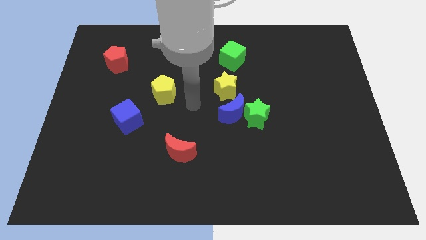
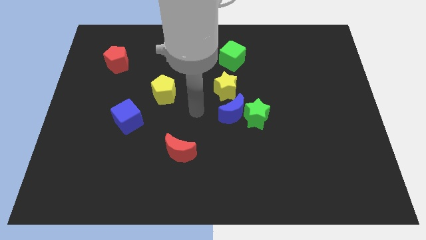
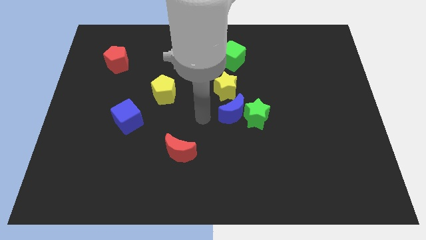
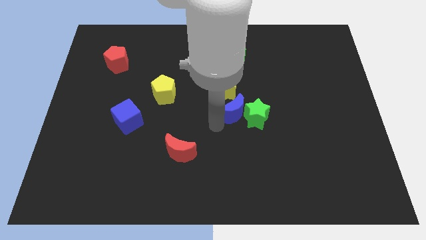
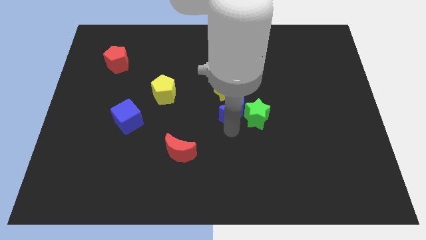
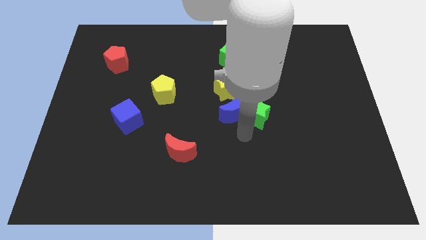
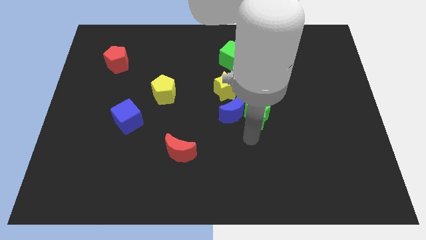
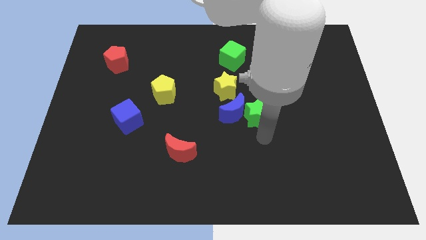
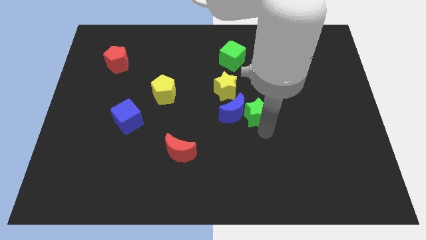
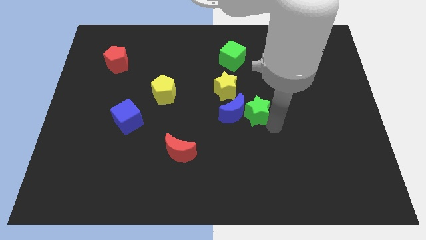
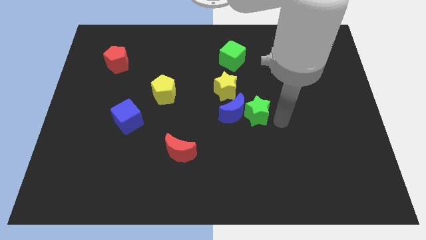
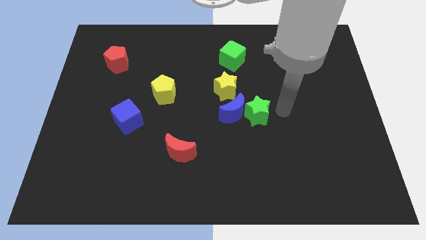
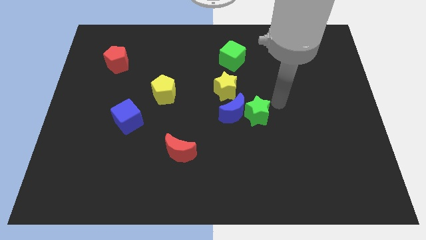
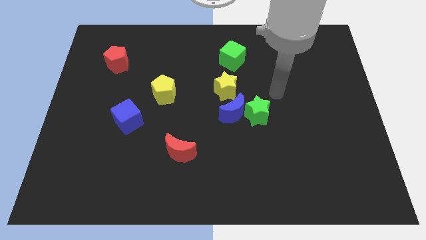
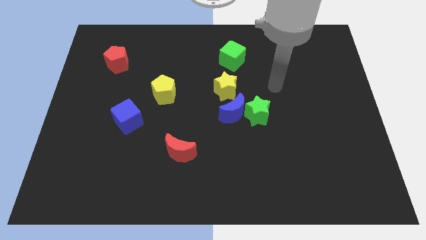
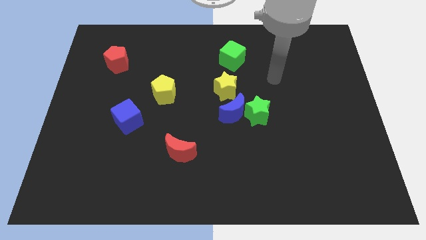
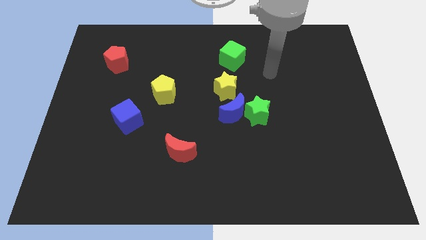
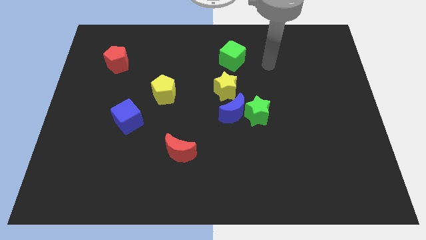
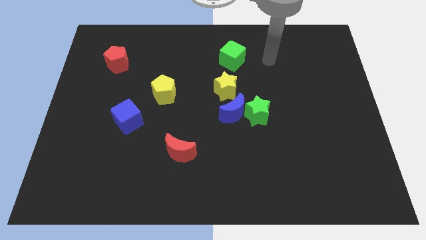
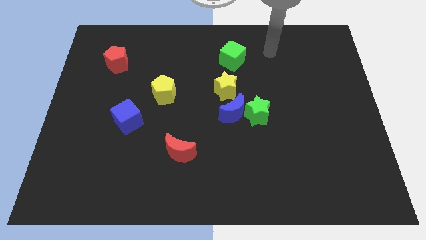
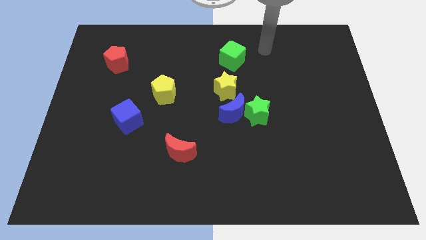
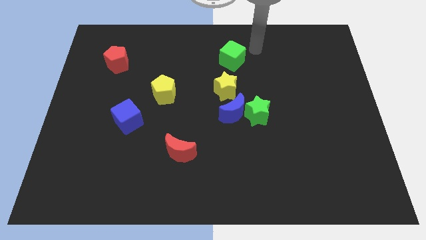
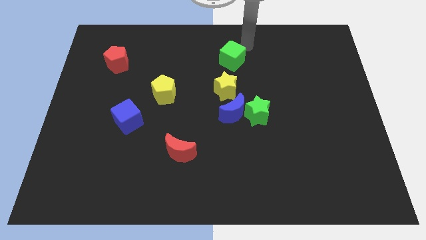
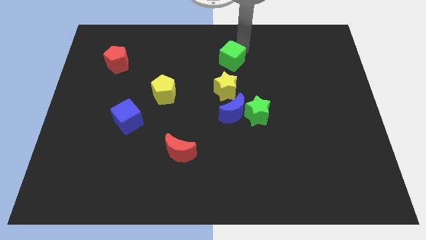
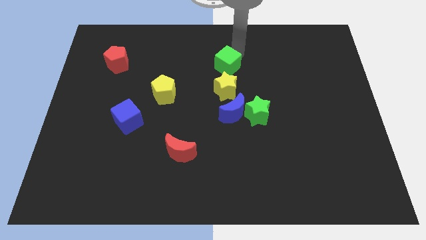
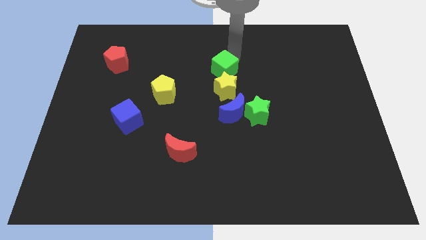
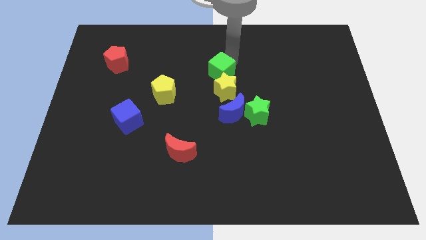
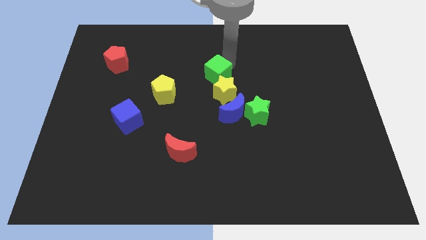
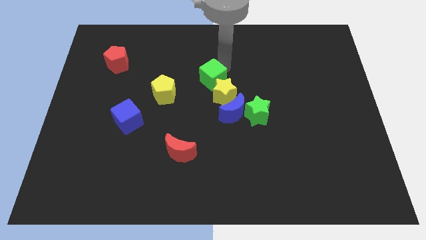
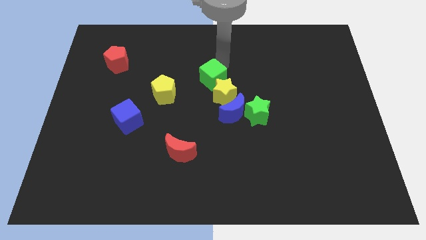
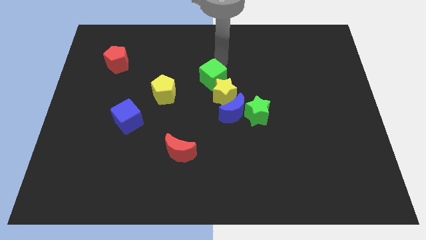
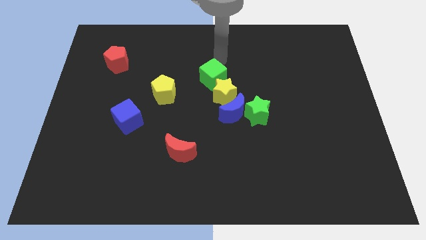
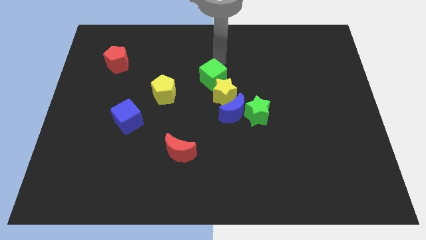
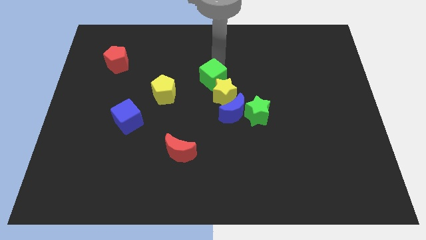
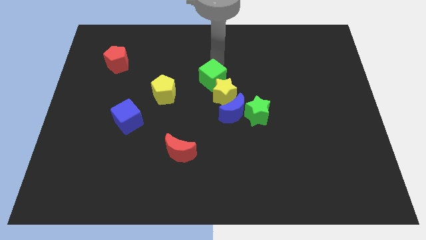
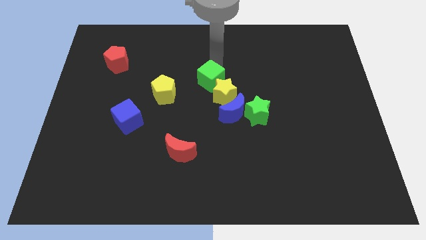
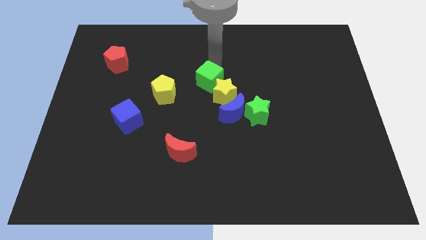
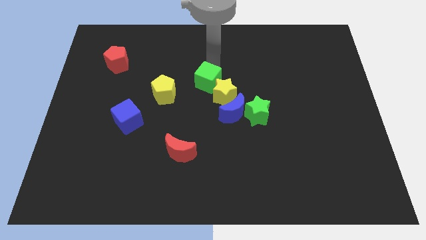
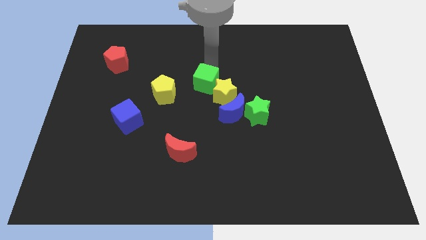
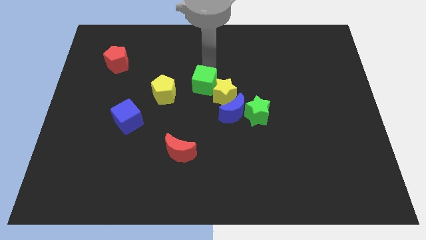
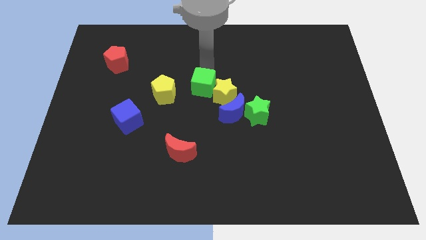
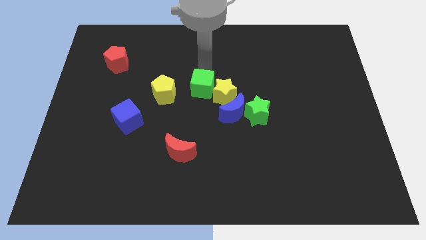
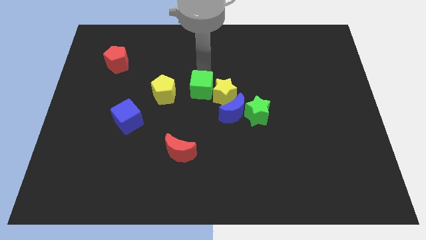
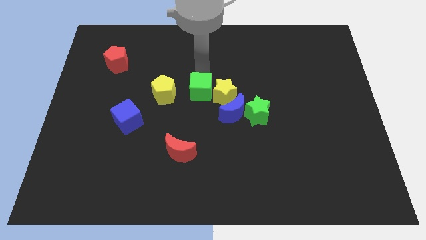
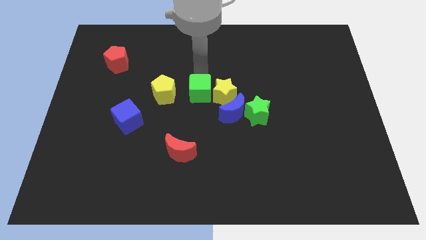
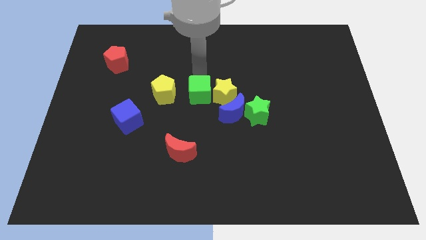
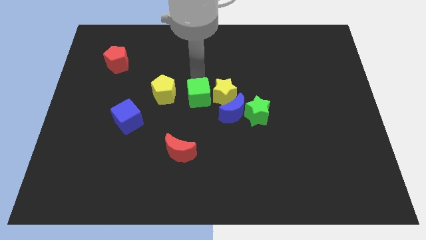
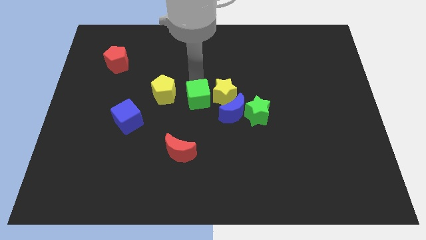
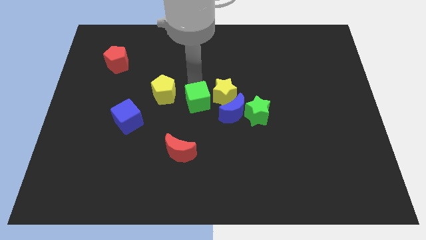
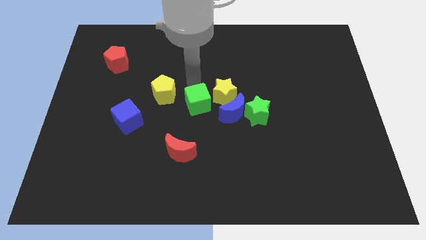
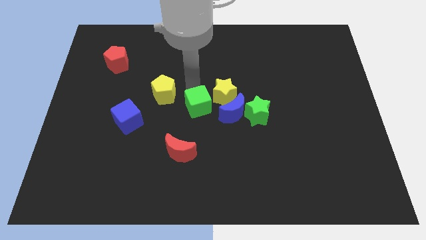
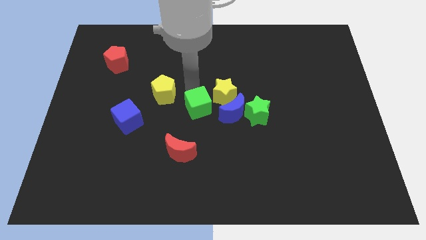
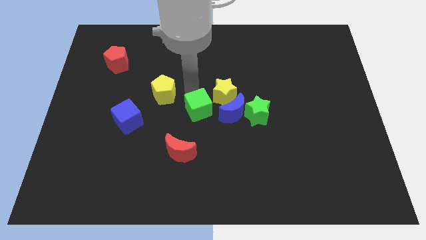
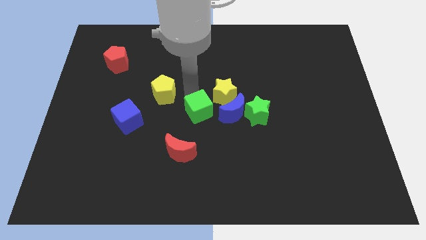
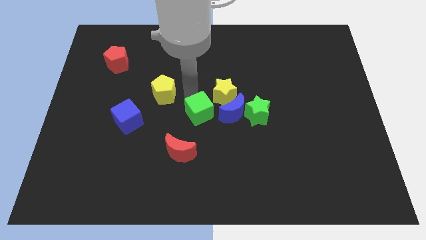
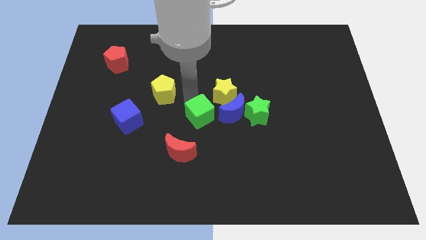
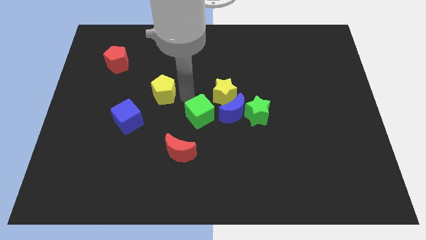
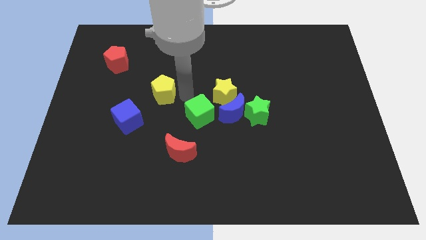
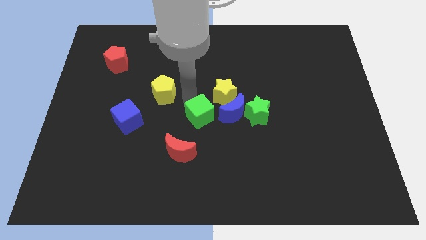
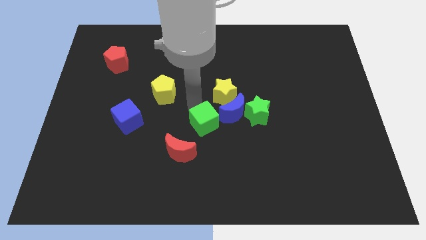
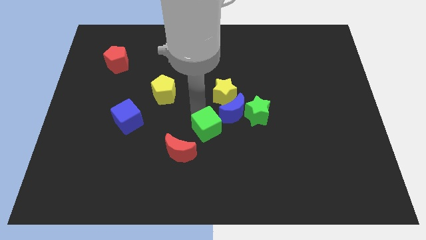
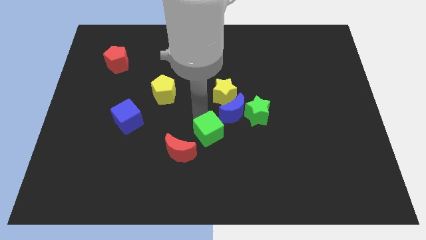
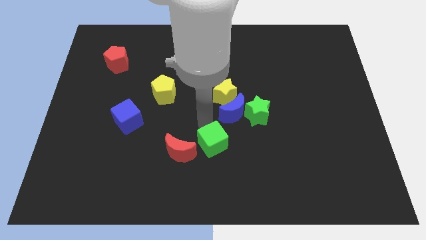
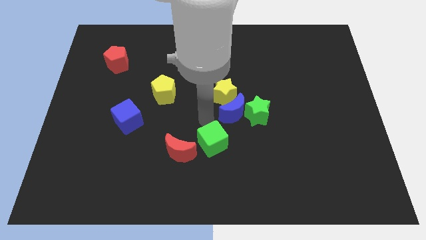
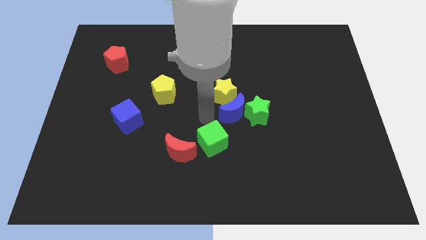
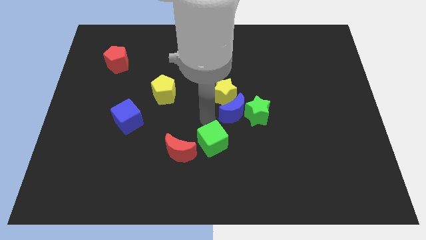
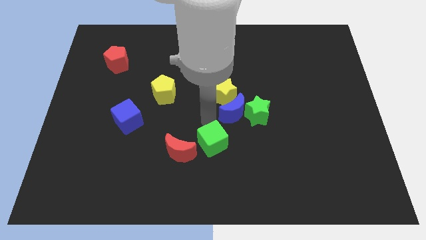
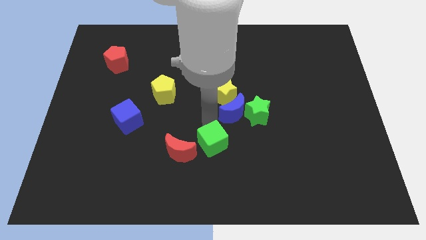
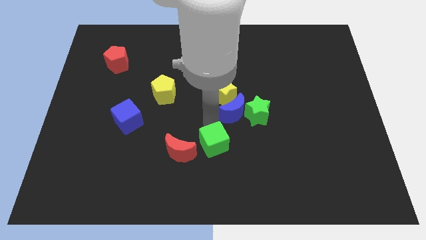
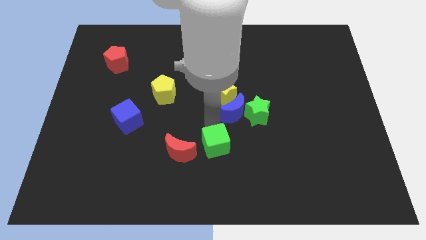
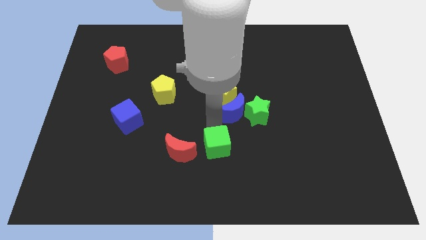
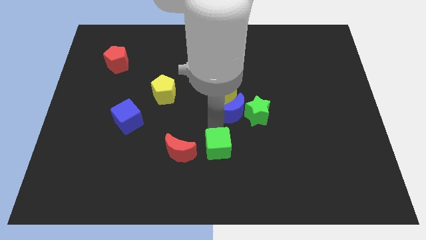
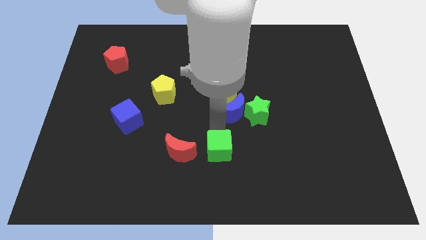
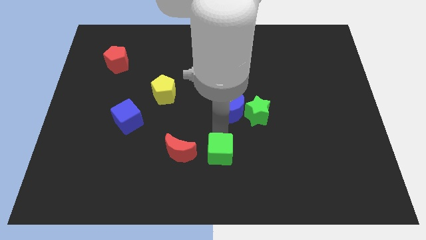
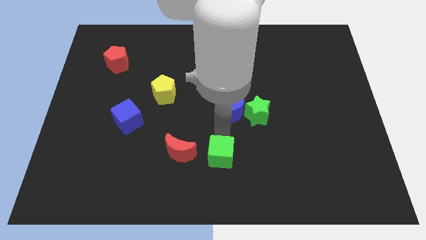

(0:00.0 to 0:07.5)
move the green cube to the bottom
